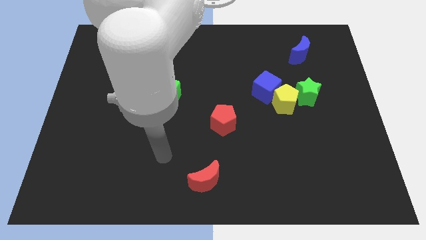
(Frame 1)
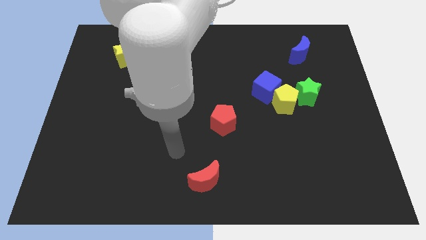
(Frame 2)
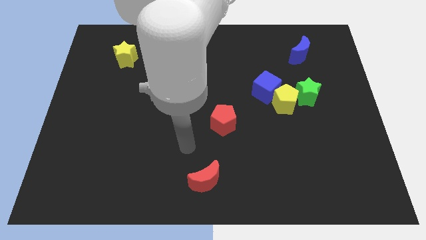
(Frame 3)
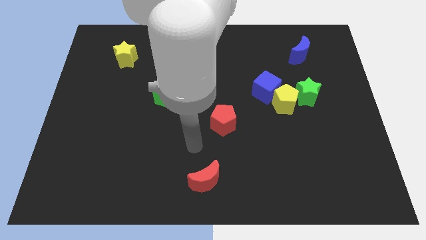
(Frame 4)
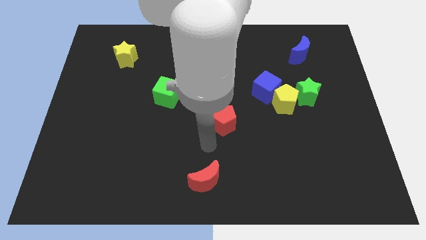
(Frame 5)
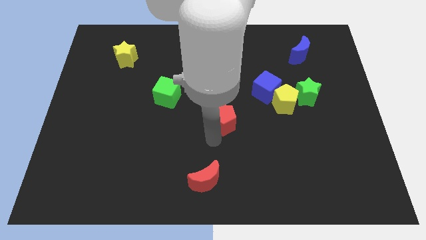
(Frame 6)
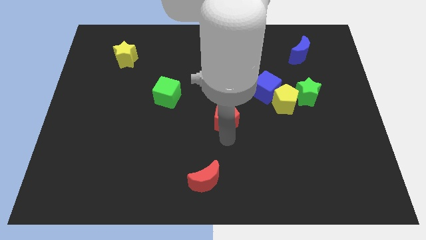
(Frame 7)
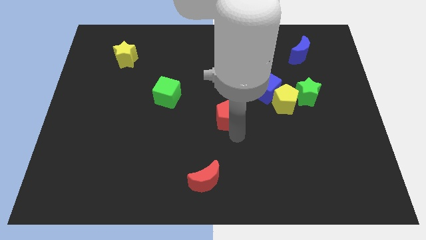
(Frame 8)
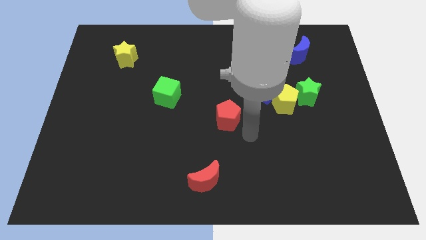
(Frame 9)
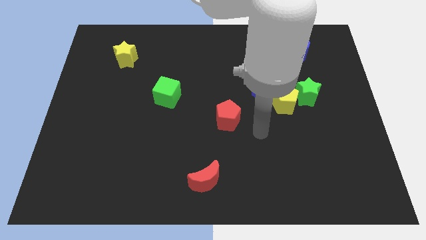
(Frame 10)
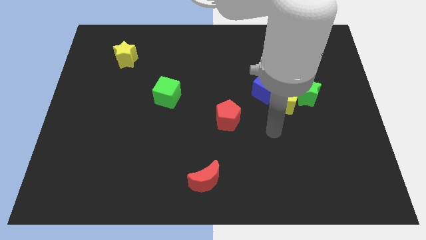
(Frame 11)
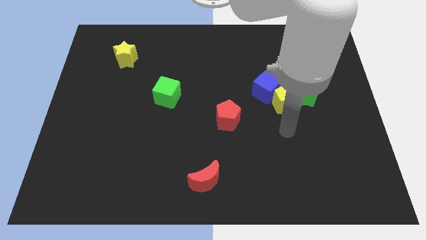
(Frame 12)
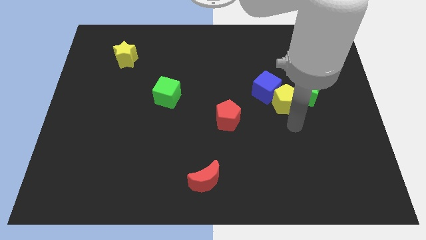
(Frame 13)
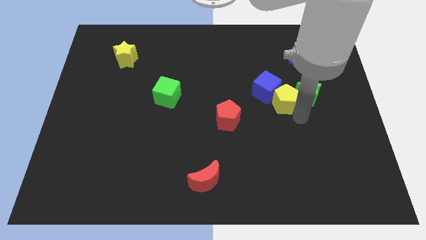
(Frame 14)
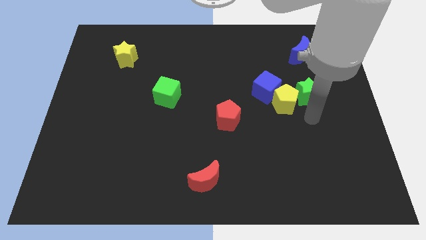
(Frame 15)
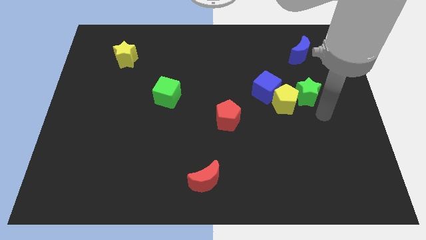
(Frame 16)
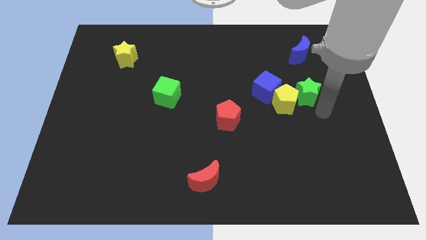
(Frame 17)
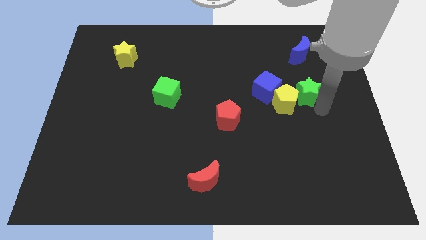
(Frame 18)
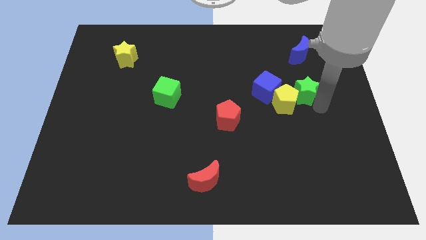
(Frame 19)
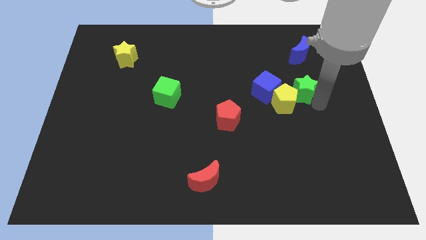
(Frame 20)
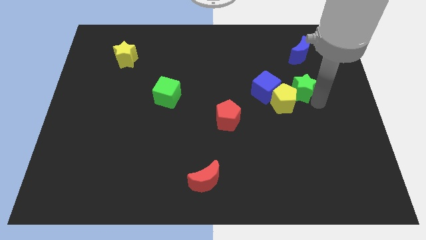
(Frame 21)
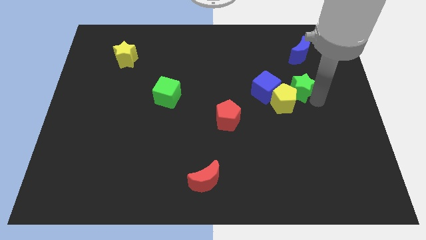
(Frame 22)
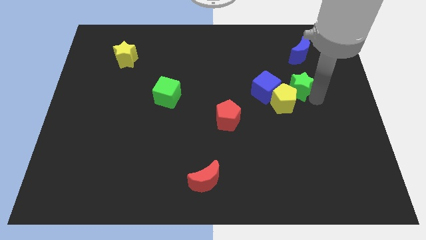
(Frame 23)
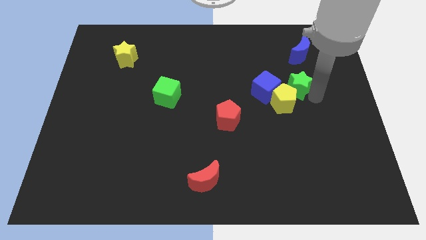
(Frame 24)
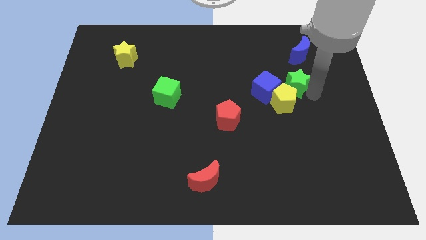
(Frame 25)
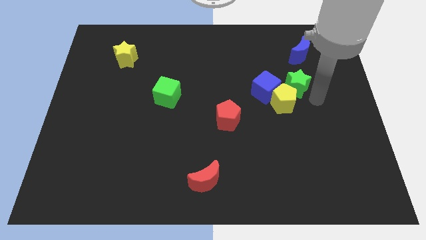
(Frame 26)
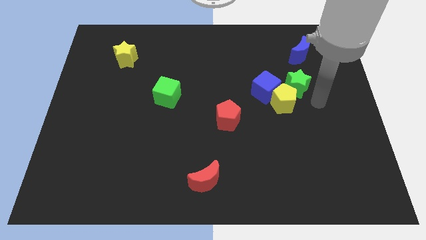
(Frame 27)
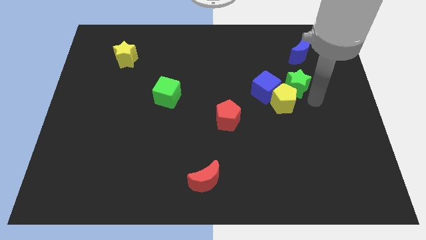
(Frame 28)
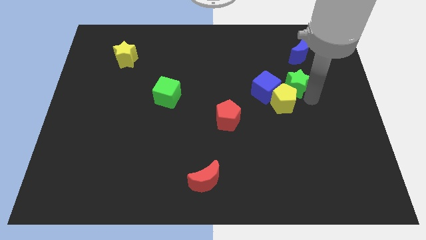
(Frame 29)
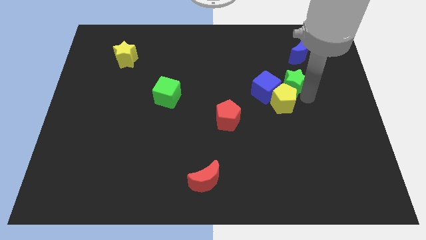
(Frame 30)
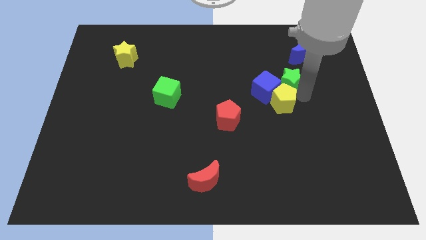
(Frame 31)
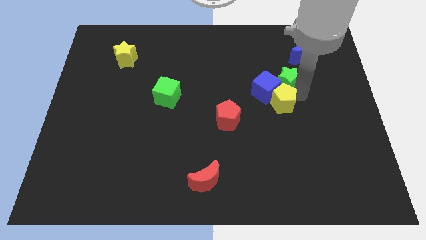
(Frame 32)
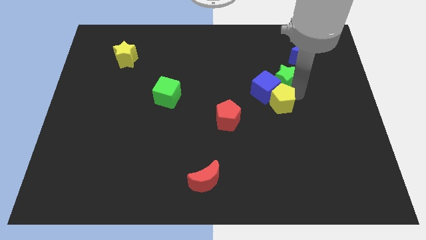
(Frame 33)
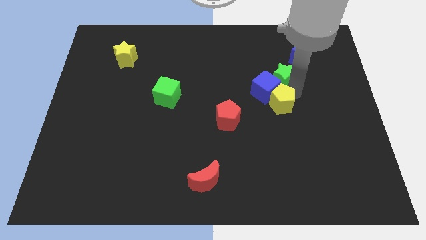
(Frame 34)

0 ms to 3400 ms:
slightly move the green star upwards and to the left diagonally

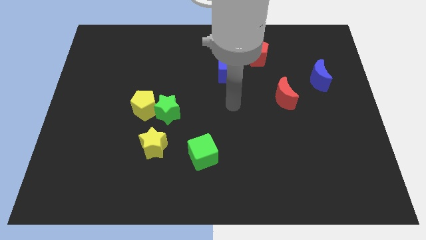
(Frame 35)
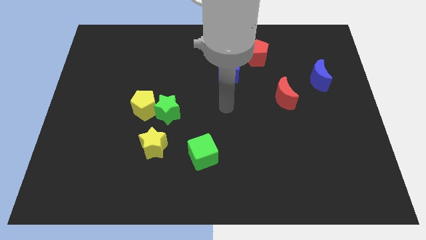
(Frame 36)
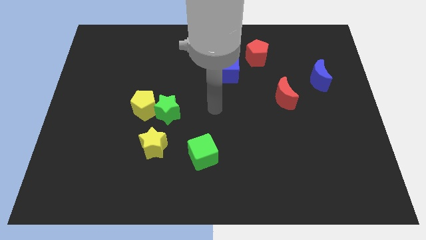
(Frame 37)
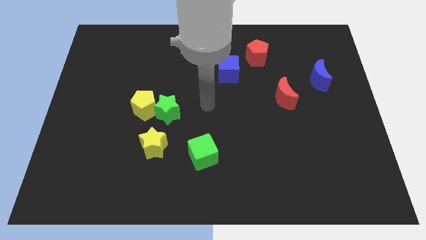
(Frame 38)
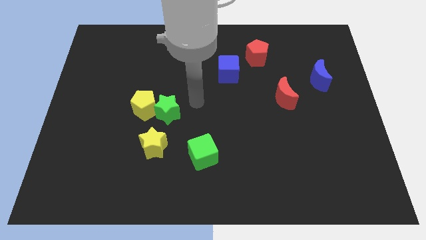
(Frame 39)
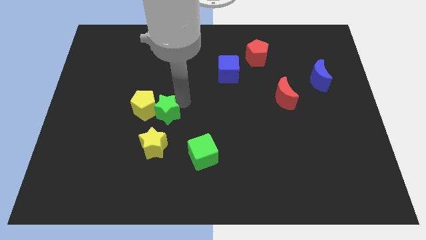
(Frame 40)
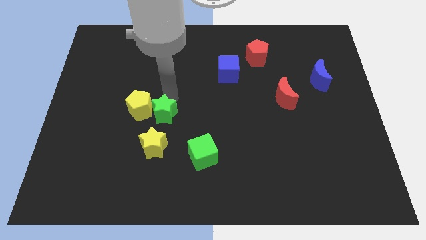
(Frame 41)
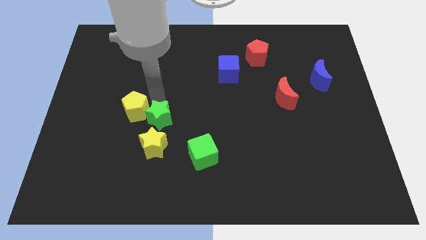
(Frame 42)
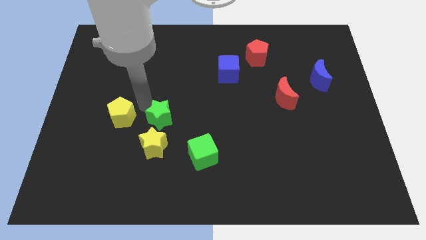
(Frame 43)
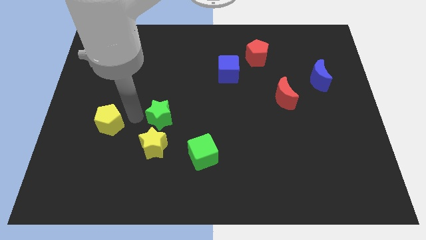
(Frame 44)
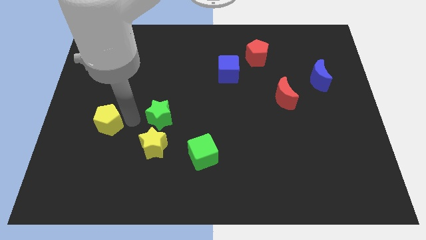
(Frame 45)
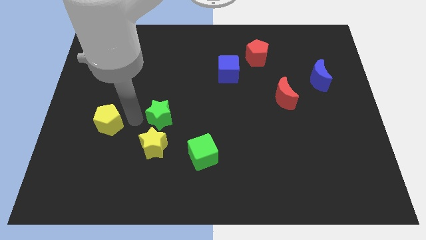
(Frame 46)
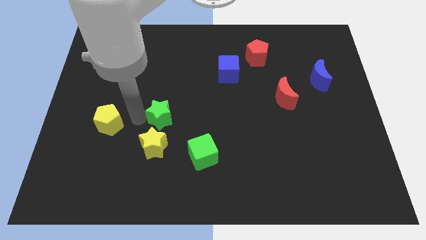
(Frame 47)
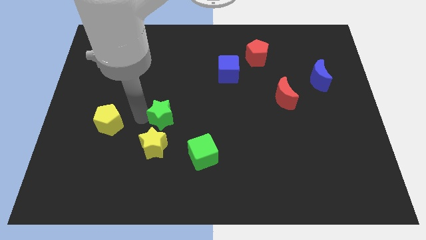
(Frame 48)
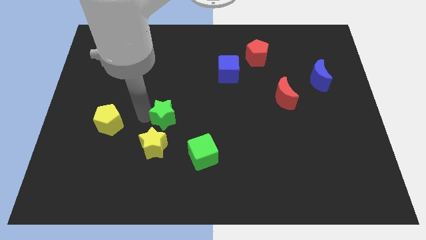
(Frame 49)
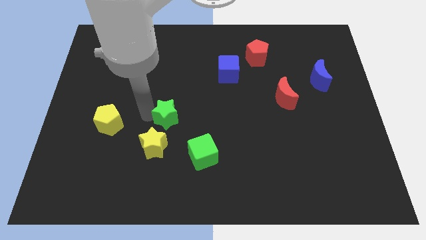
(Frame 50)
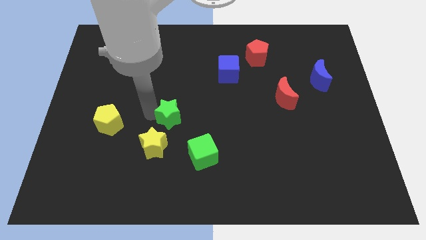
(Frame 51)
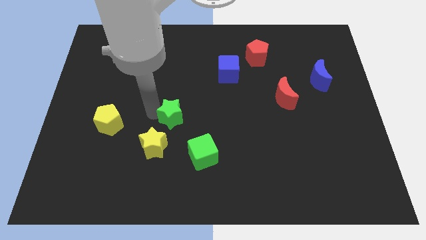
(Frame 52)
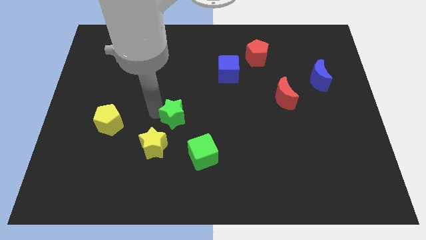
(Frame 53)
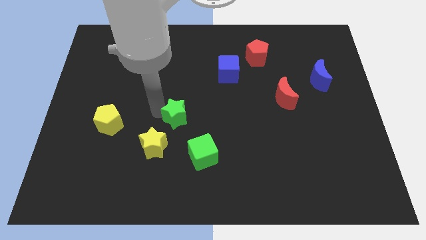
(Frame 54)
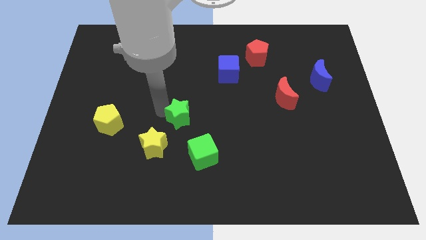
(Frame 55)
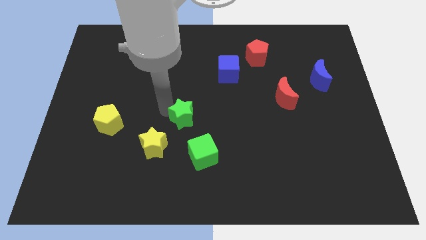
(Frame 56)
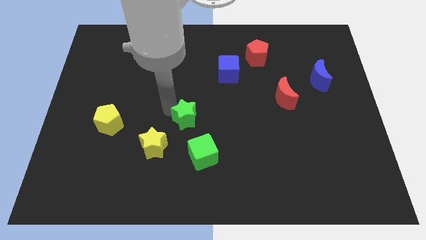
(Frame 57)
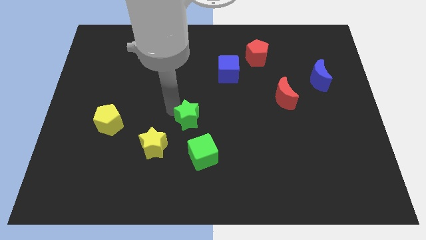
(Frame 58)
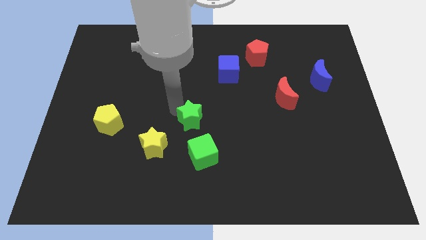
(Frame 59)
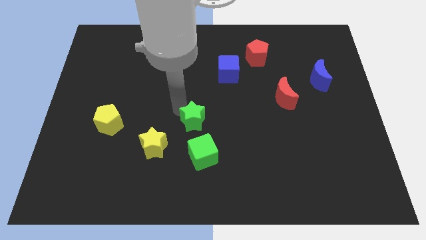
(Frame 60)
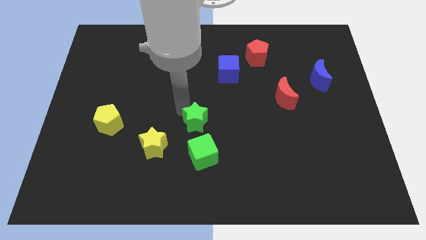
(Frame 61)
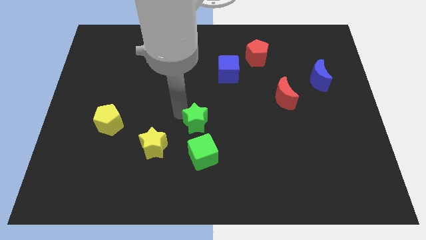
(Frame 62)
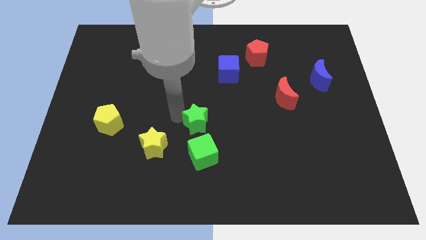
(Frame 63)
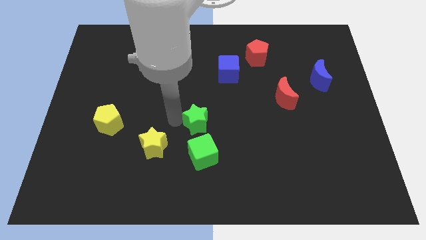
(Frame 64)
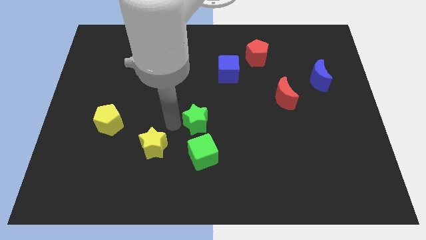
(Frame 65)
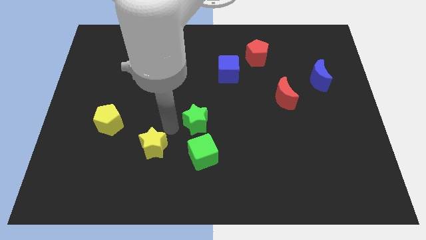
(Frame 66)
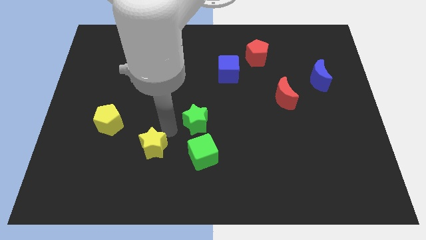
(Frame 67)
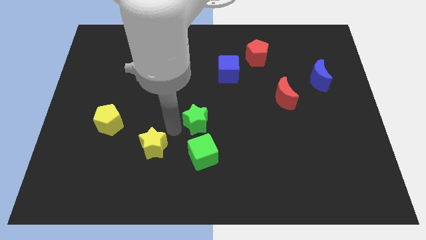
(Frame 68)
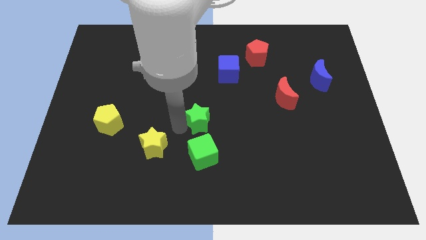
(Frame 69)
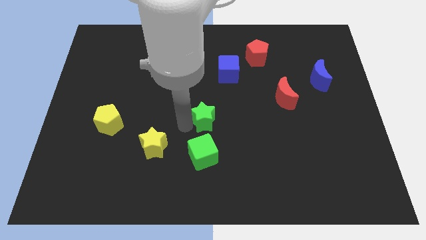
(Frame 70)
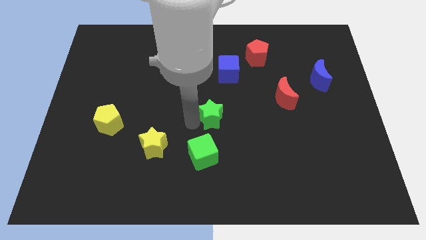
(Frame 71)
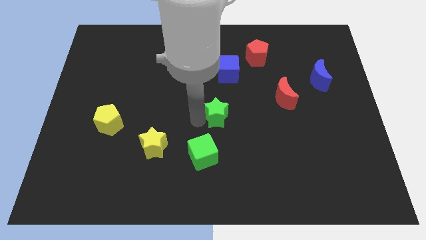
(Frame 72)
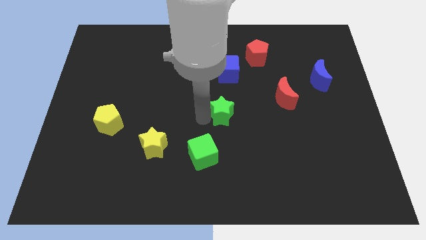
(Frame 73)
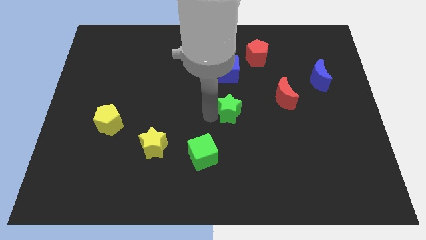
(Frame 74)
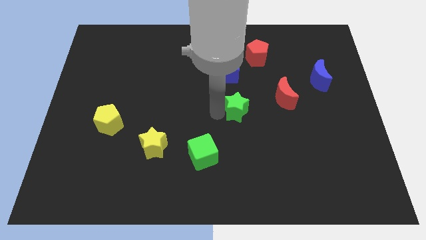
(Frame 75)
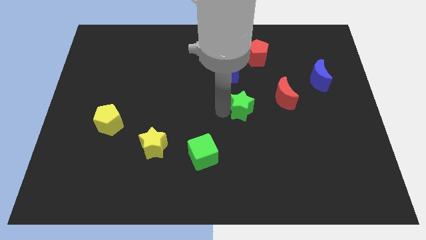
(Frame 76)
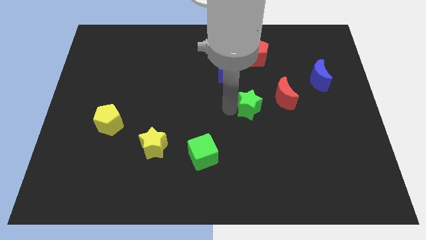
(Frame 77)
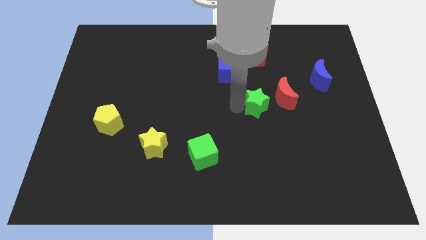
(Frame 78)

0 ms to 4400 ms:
slide the green star to the right
